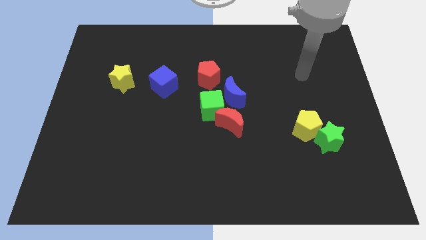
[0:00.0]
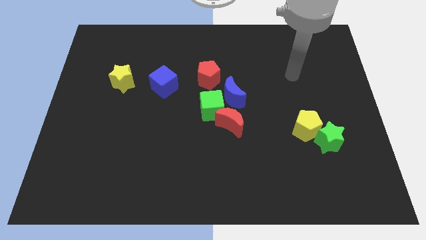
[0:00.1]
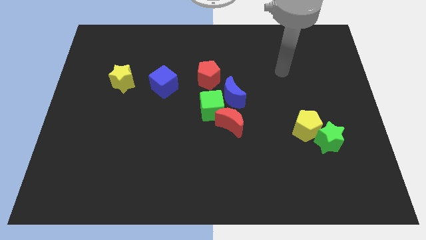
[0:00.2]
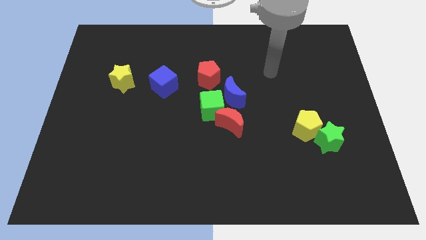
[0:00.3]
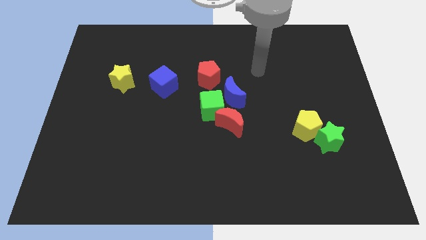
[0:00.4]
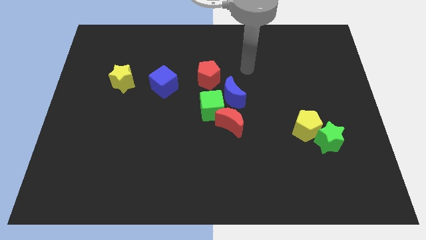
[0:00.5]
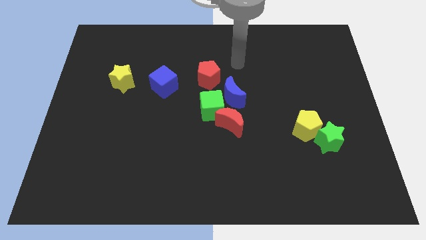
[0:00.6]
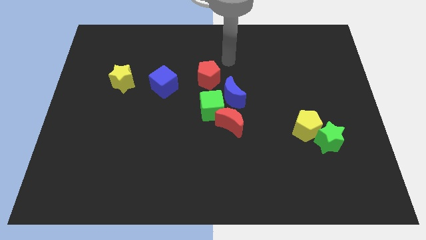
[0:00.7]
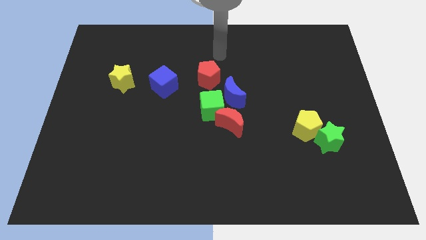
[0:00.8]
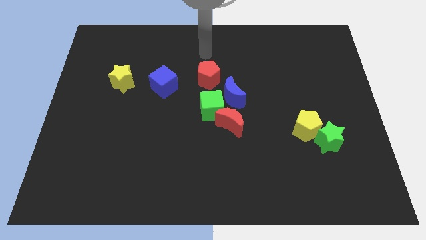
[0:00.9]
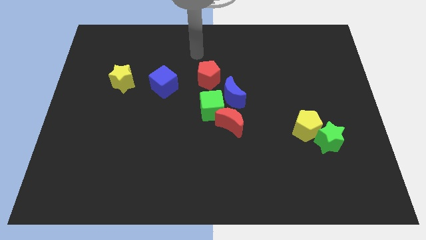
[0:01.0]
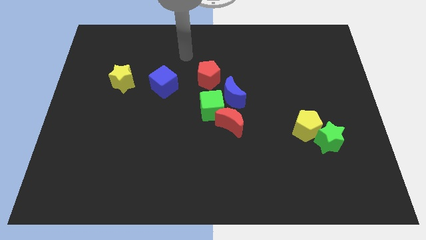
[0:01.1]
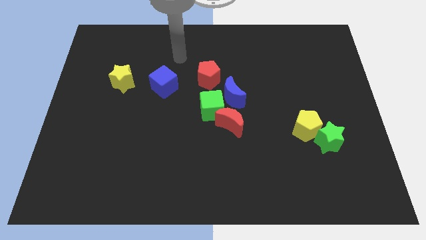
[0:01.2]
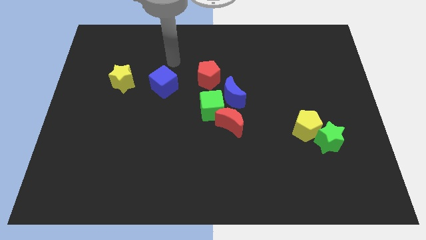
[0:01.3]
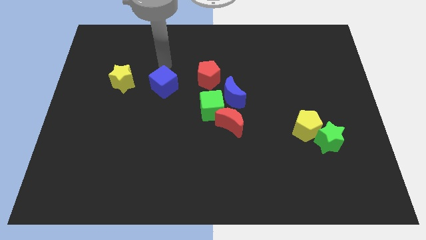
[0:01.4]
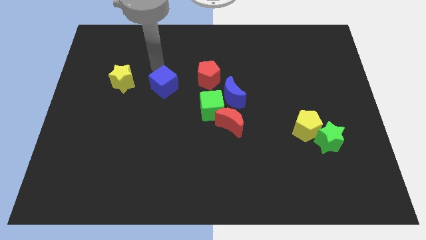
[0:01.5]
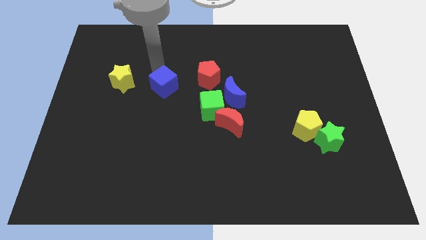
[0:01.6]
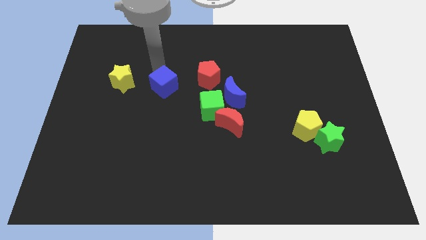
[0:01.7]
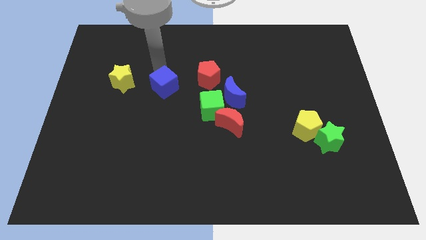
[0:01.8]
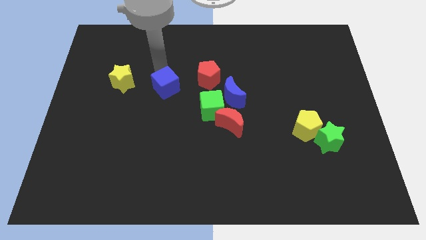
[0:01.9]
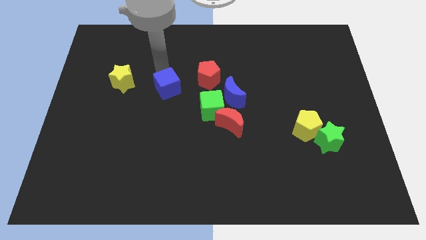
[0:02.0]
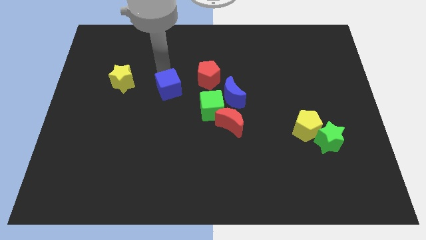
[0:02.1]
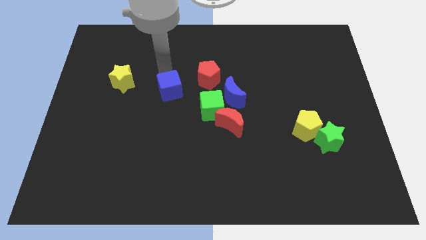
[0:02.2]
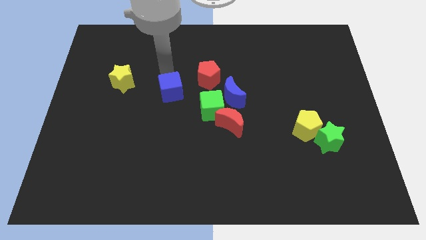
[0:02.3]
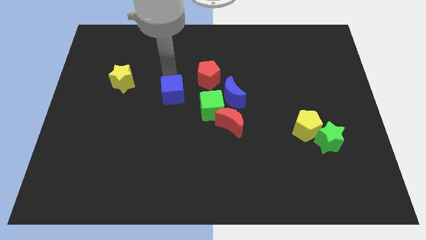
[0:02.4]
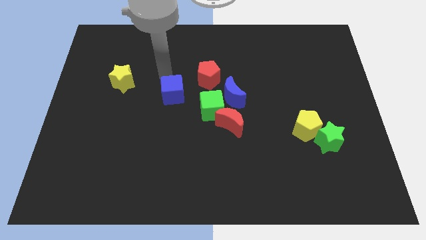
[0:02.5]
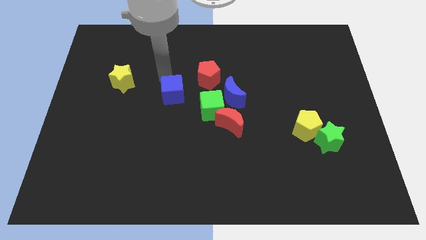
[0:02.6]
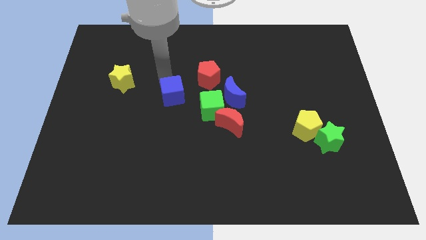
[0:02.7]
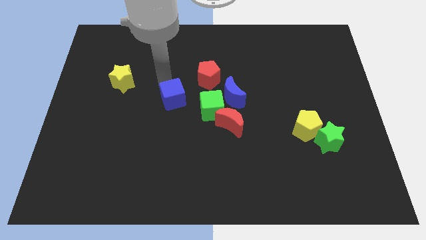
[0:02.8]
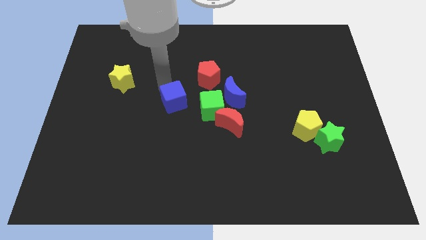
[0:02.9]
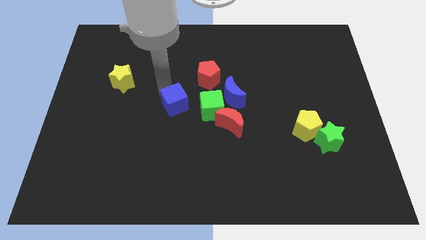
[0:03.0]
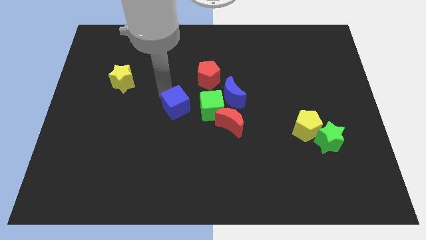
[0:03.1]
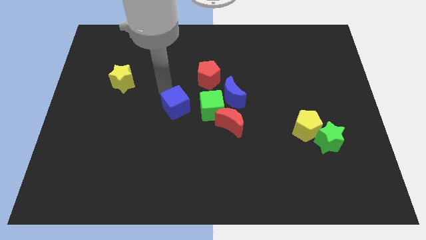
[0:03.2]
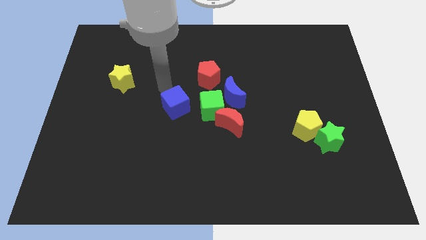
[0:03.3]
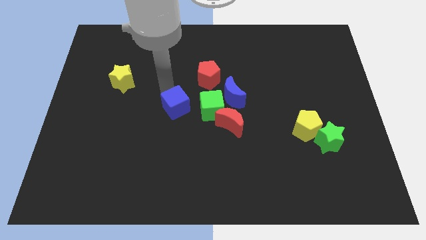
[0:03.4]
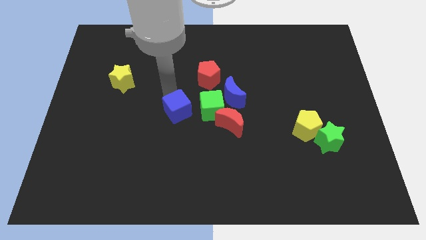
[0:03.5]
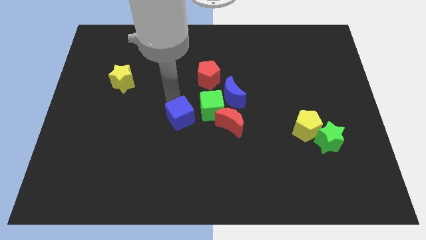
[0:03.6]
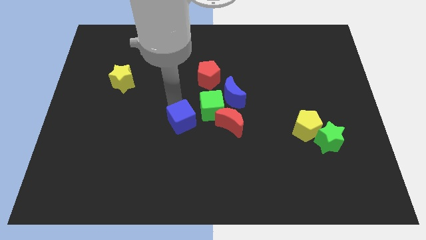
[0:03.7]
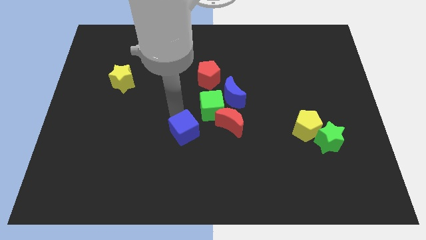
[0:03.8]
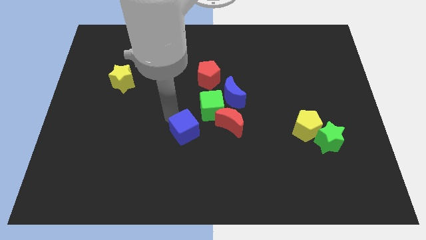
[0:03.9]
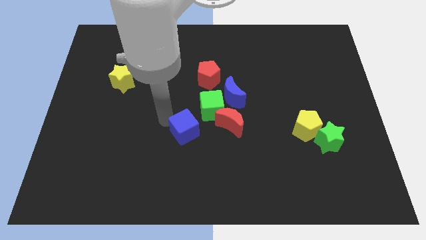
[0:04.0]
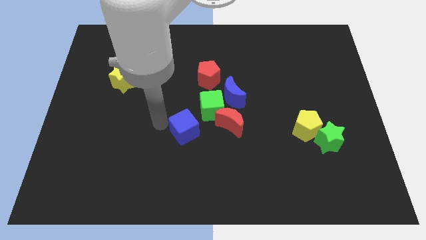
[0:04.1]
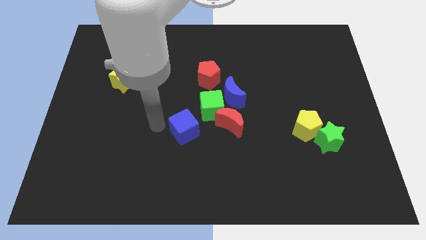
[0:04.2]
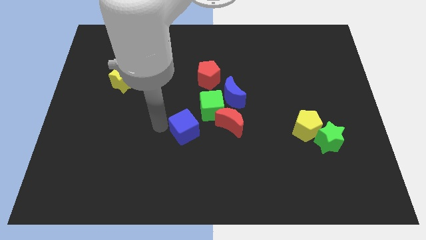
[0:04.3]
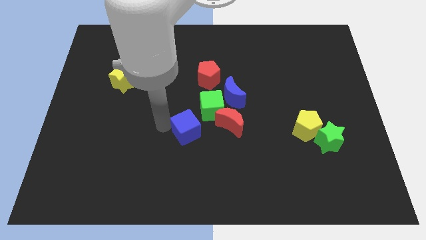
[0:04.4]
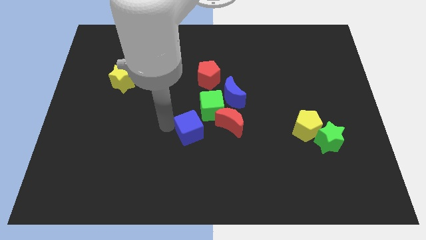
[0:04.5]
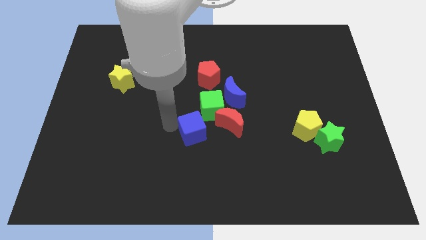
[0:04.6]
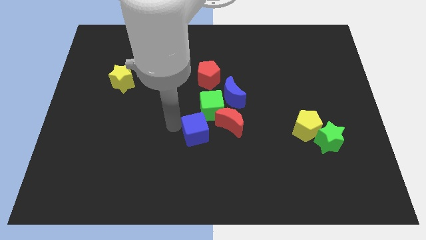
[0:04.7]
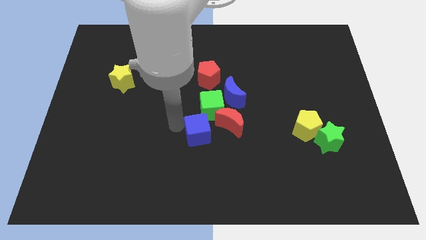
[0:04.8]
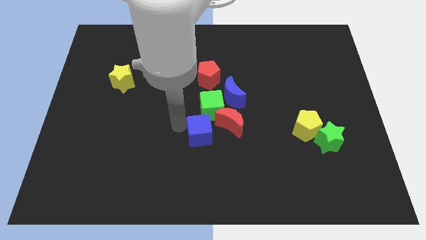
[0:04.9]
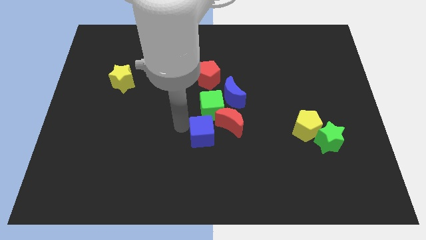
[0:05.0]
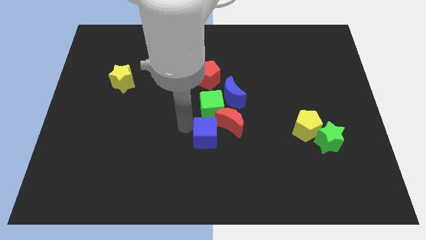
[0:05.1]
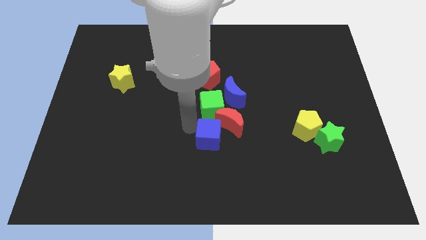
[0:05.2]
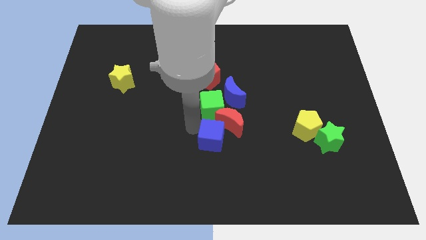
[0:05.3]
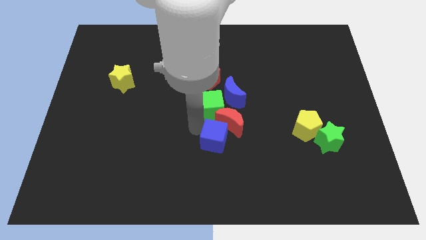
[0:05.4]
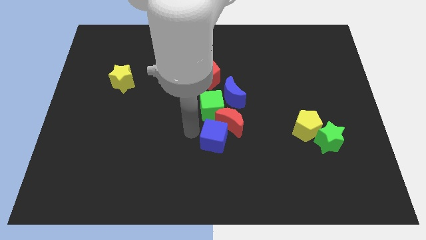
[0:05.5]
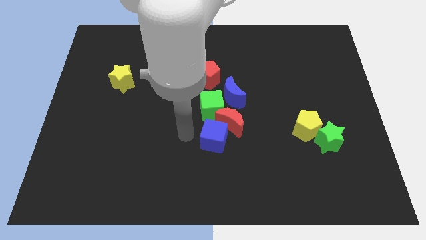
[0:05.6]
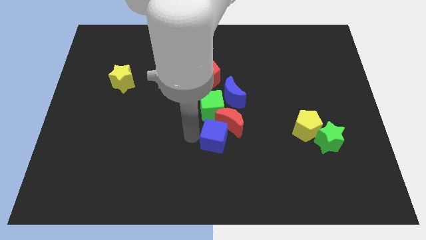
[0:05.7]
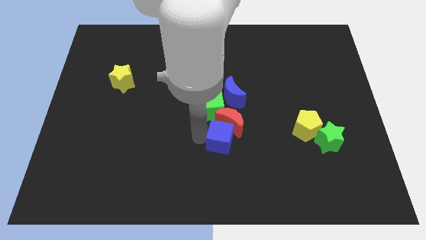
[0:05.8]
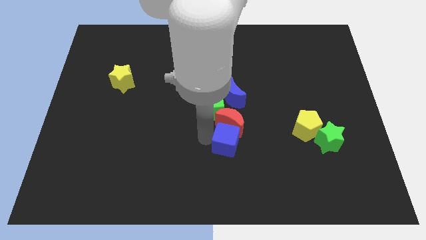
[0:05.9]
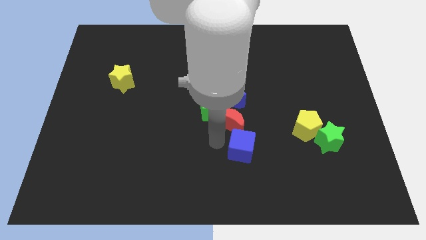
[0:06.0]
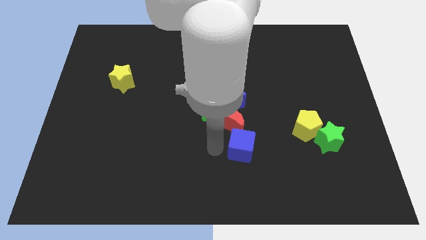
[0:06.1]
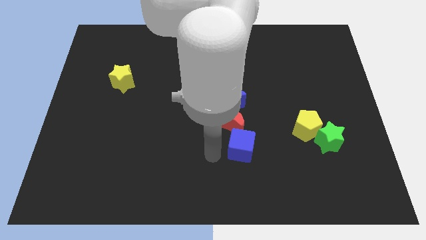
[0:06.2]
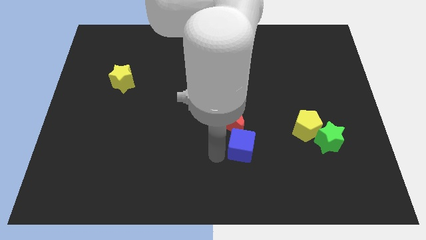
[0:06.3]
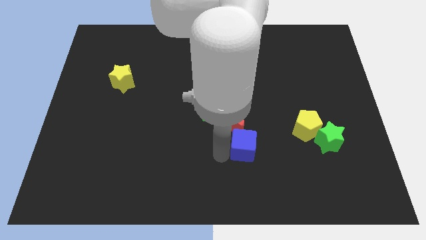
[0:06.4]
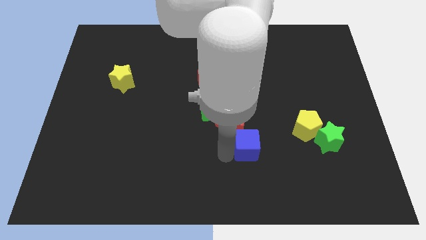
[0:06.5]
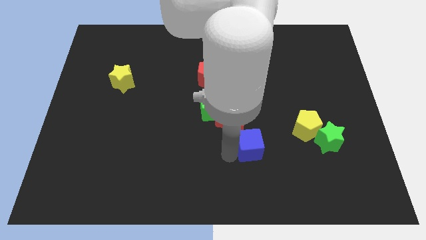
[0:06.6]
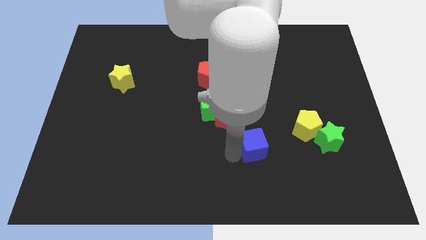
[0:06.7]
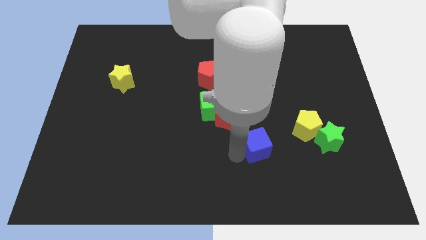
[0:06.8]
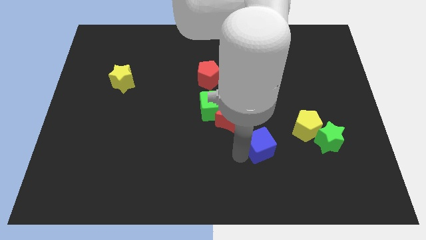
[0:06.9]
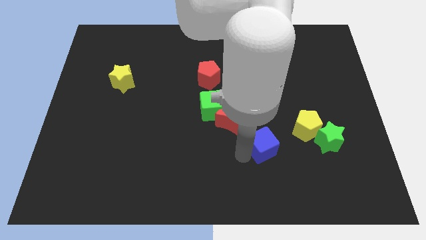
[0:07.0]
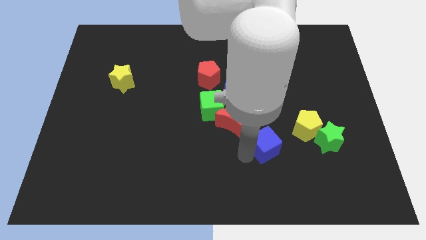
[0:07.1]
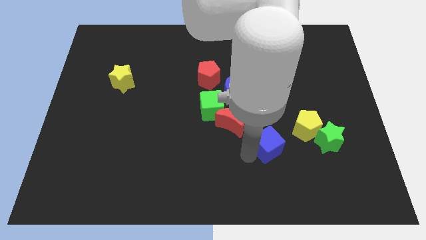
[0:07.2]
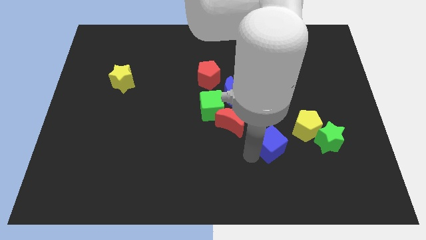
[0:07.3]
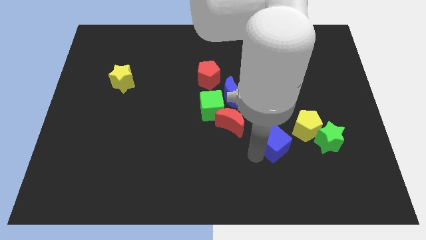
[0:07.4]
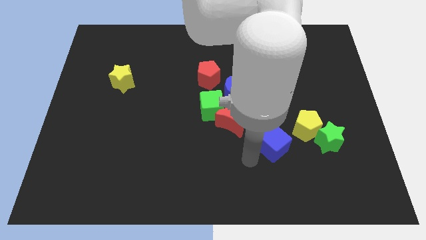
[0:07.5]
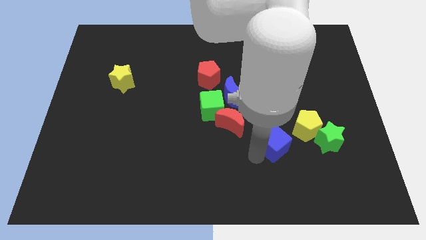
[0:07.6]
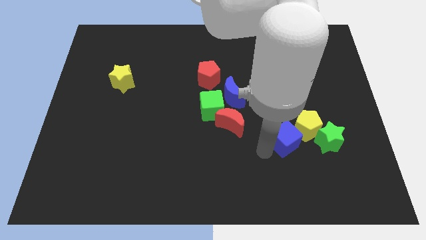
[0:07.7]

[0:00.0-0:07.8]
move the blue cube next to the yellow pentagon
